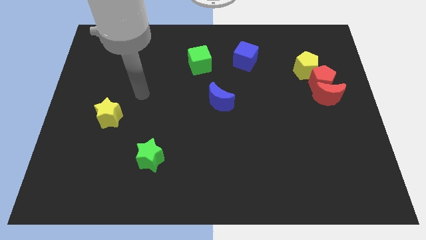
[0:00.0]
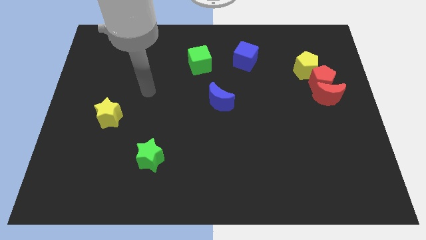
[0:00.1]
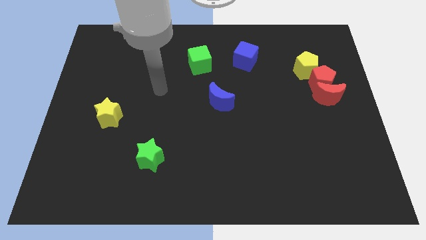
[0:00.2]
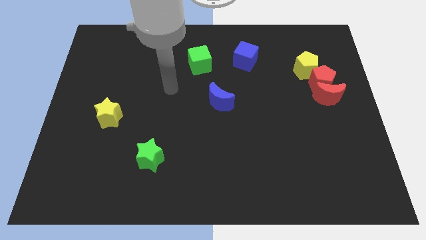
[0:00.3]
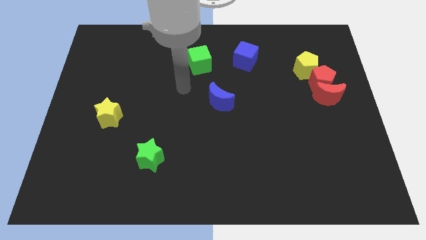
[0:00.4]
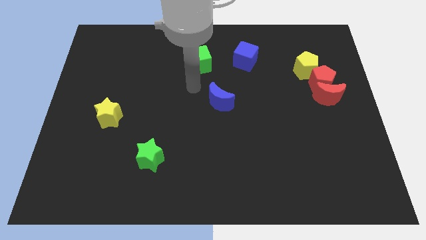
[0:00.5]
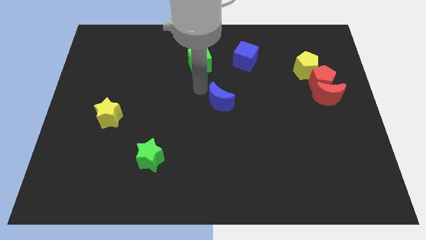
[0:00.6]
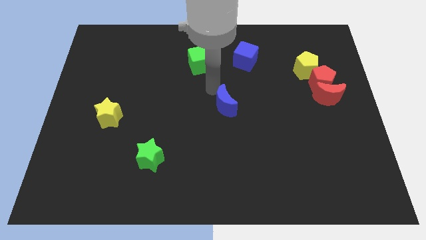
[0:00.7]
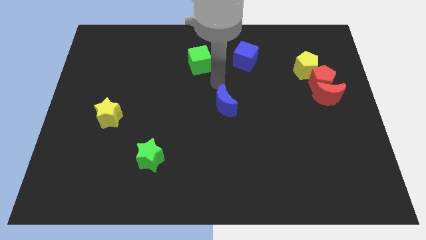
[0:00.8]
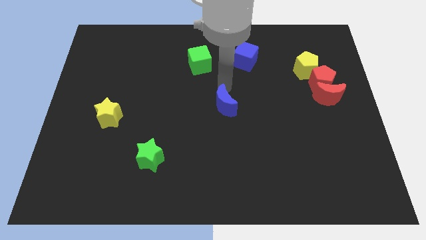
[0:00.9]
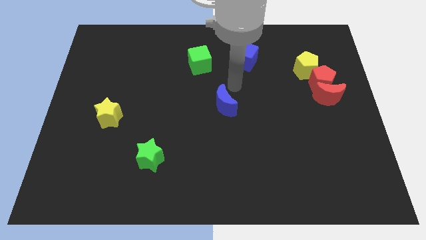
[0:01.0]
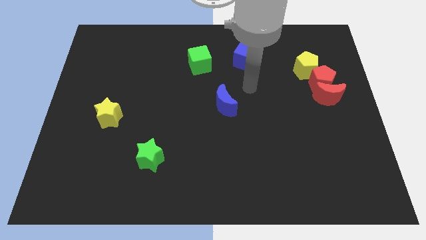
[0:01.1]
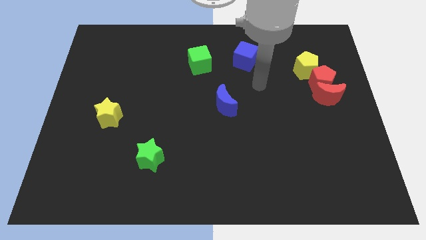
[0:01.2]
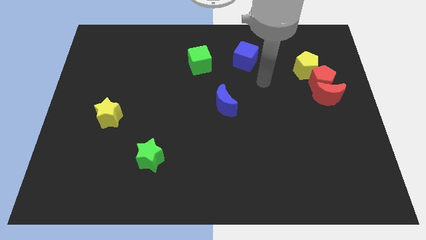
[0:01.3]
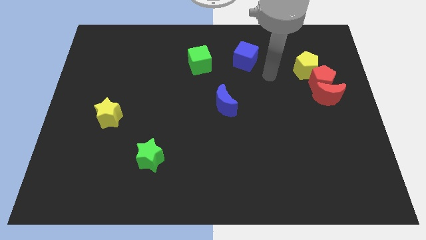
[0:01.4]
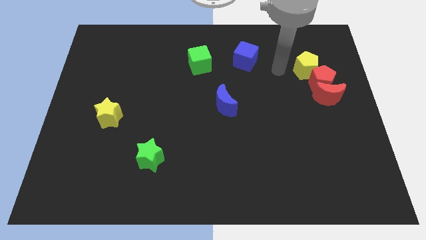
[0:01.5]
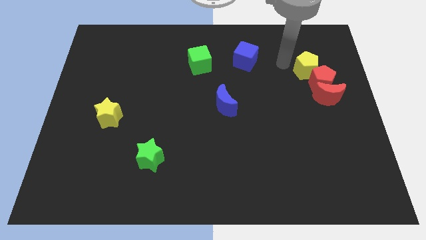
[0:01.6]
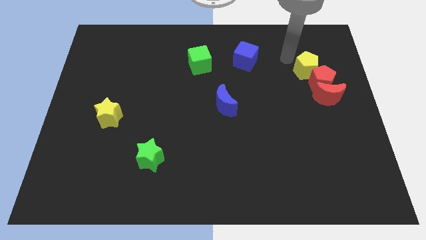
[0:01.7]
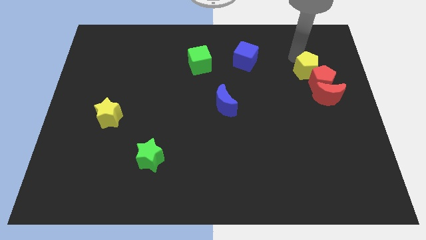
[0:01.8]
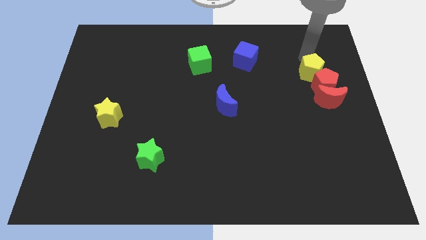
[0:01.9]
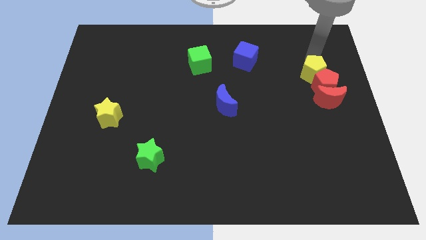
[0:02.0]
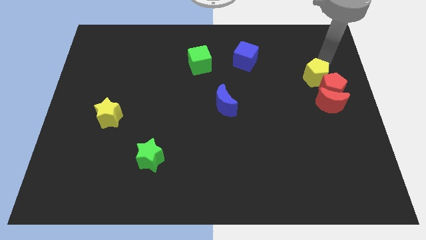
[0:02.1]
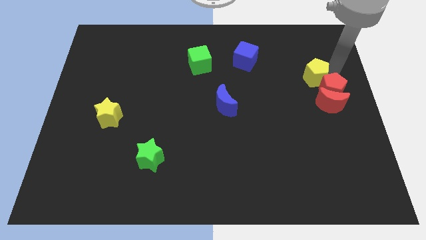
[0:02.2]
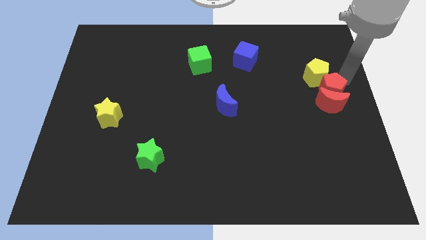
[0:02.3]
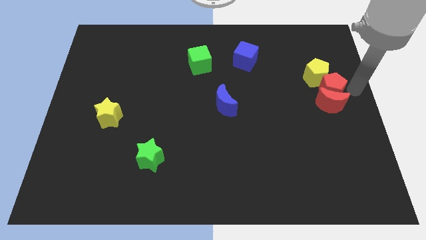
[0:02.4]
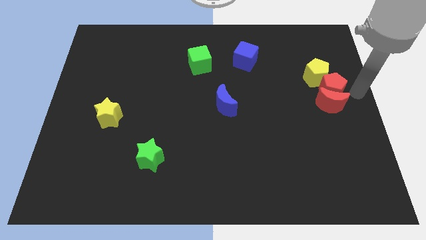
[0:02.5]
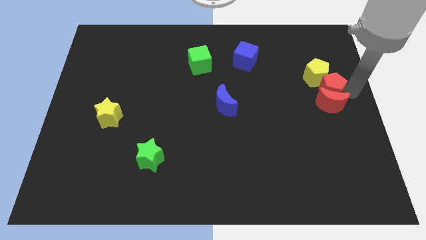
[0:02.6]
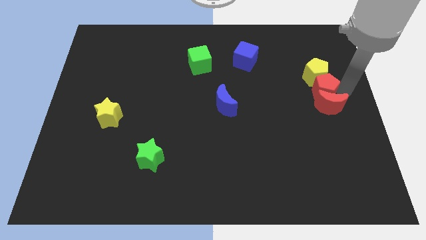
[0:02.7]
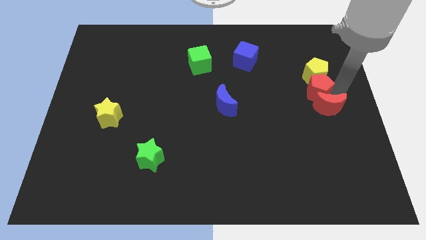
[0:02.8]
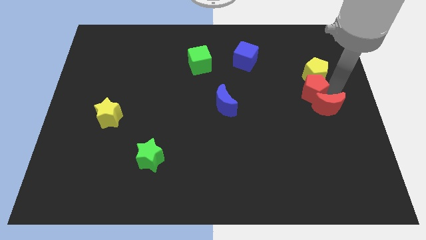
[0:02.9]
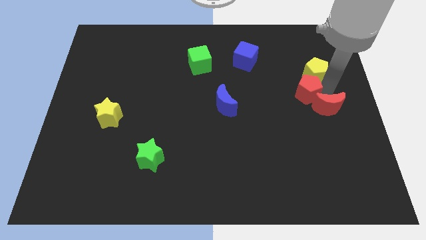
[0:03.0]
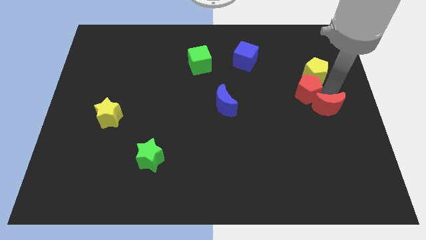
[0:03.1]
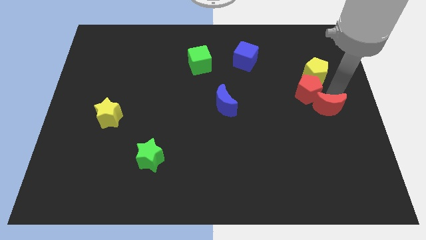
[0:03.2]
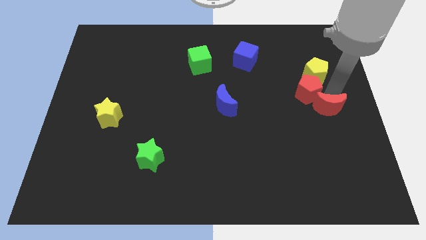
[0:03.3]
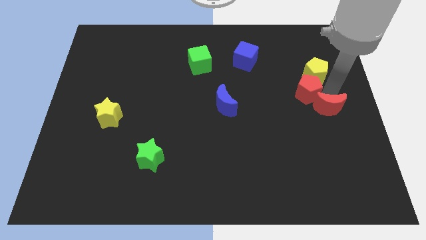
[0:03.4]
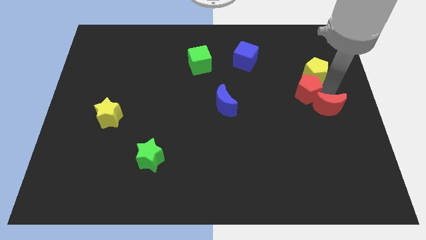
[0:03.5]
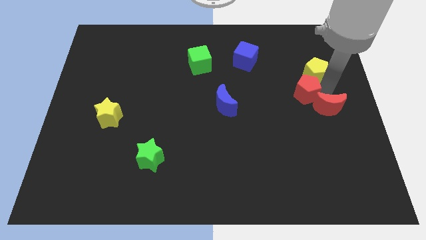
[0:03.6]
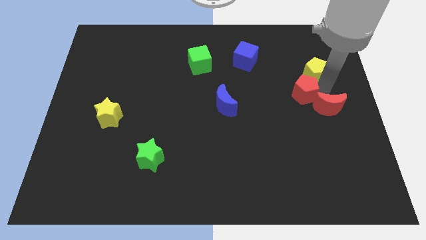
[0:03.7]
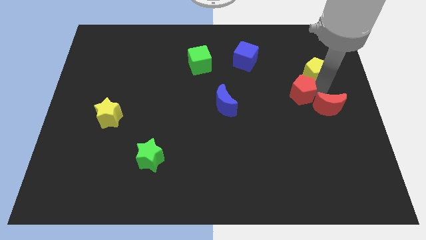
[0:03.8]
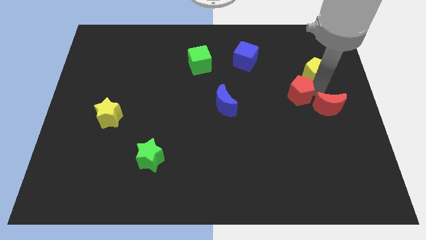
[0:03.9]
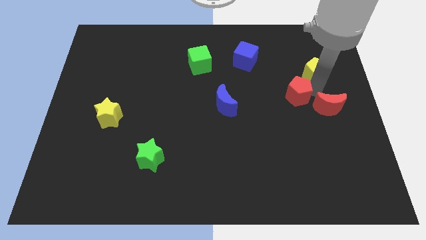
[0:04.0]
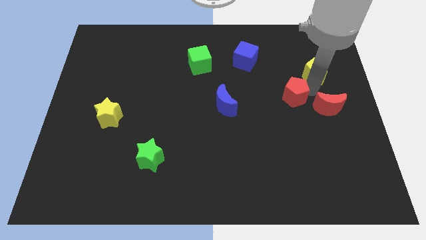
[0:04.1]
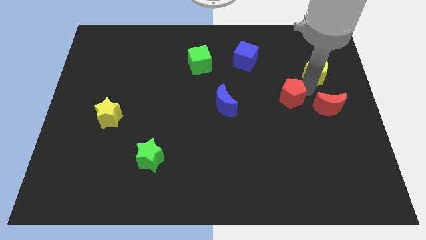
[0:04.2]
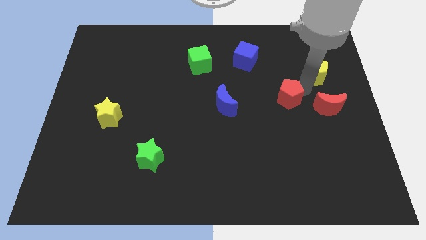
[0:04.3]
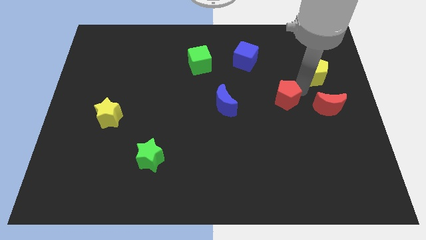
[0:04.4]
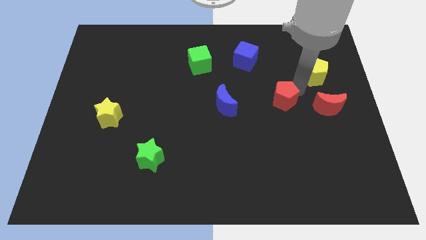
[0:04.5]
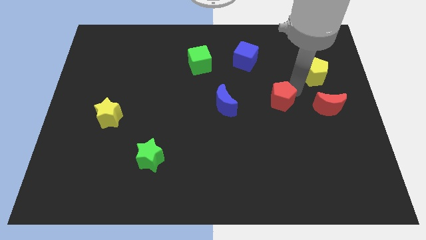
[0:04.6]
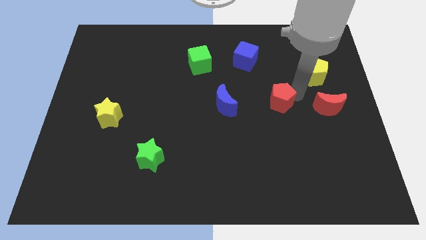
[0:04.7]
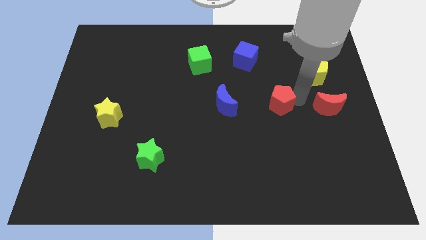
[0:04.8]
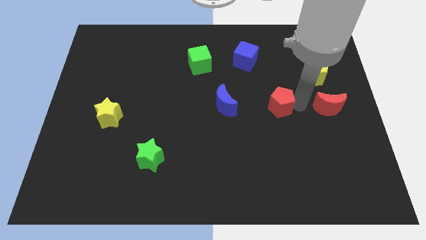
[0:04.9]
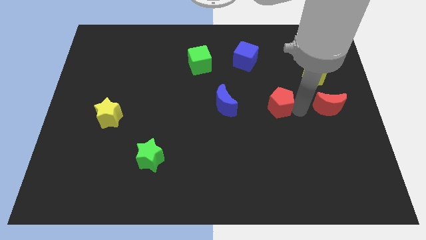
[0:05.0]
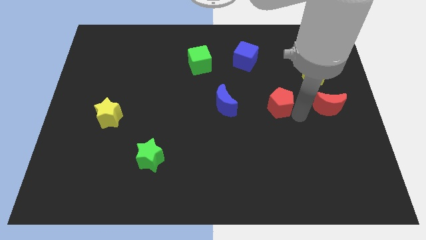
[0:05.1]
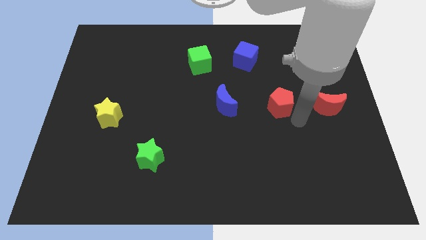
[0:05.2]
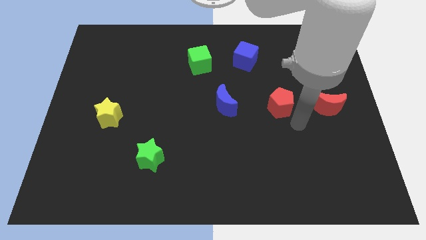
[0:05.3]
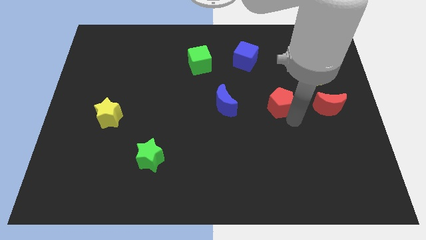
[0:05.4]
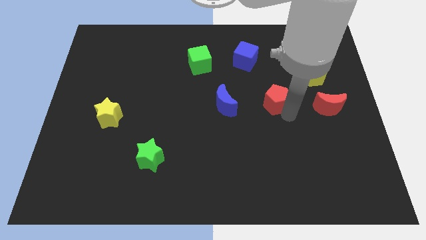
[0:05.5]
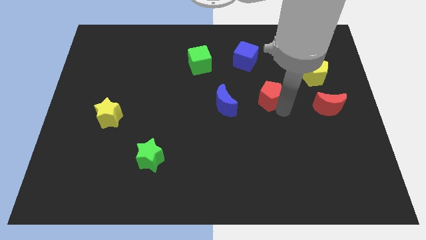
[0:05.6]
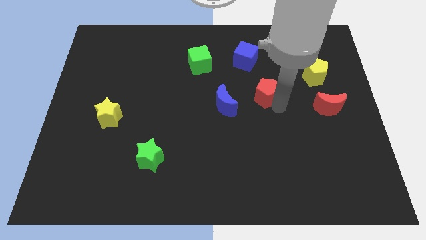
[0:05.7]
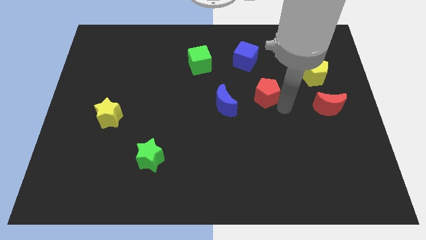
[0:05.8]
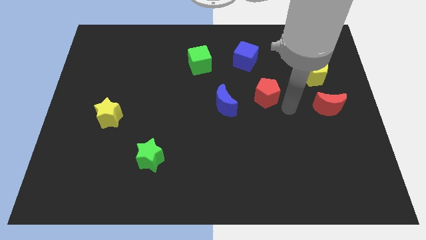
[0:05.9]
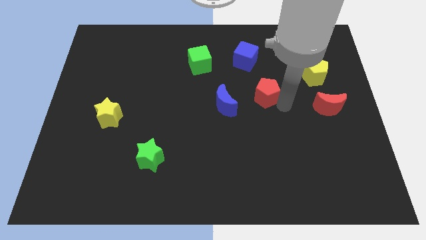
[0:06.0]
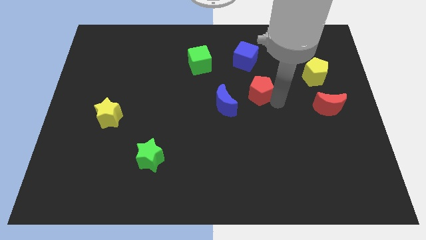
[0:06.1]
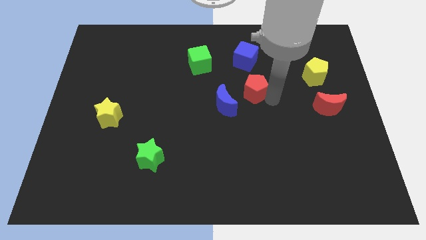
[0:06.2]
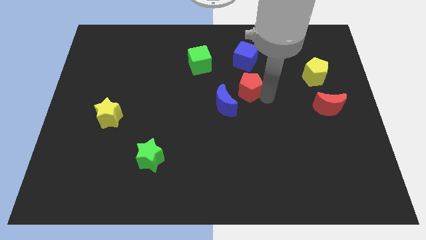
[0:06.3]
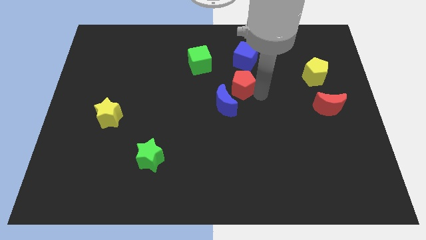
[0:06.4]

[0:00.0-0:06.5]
push the red pentagon left

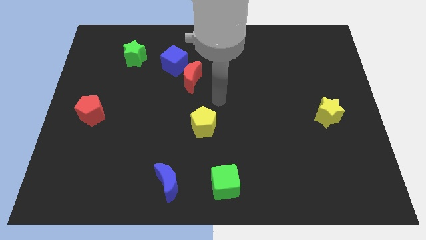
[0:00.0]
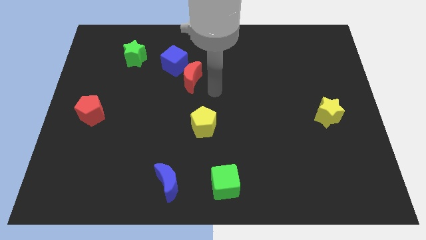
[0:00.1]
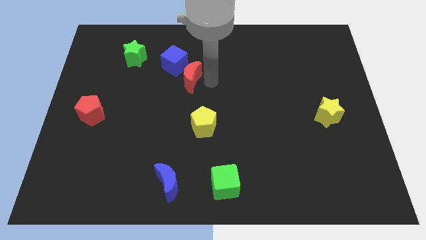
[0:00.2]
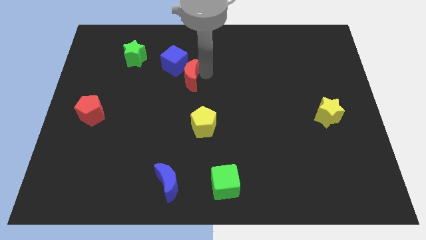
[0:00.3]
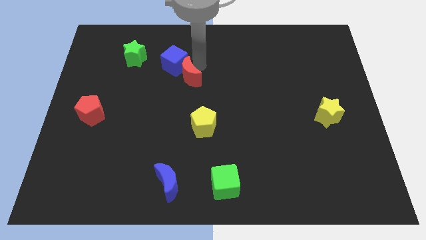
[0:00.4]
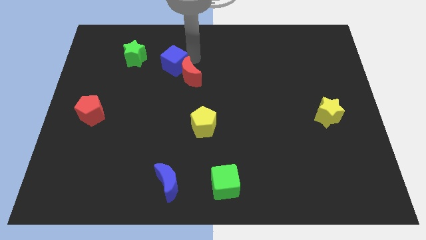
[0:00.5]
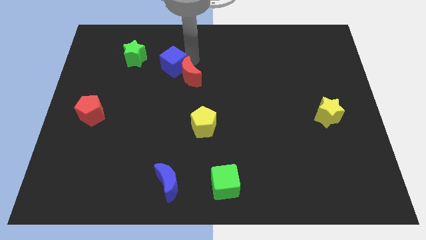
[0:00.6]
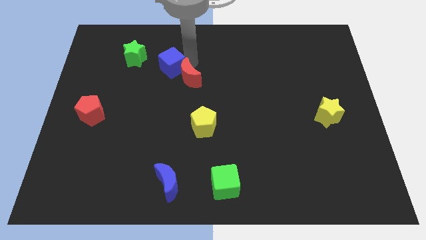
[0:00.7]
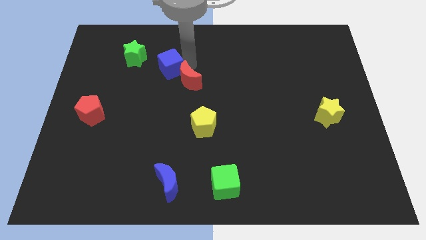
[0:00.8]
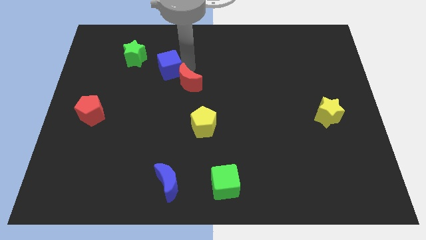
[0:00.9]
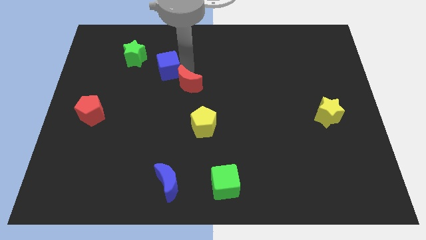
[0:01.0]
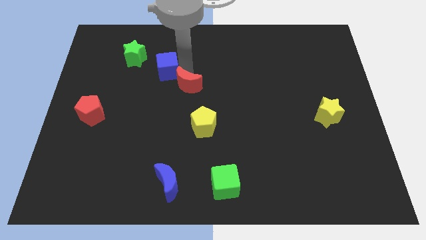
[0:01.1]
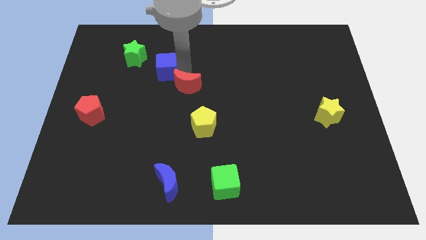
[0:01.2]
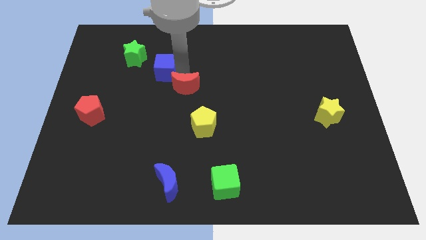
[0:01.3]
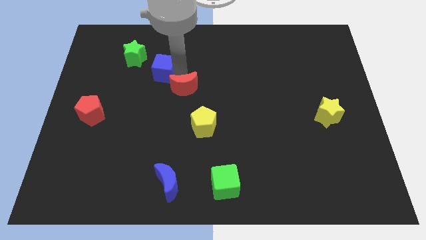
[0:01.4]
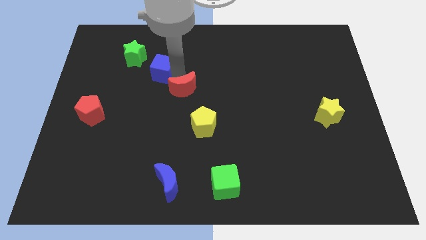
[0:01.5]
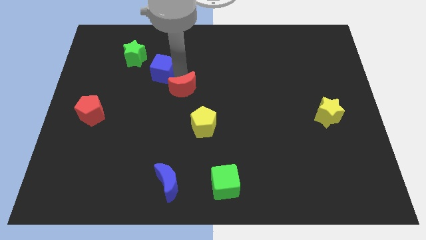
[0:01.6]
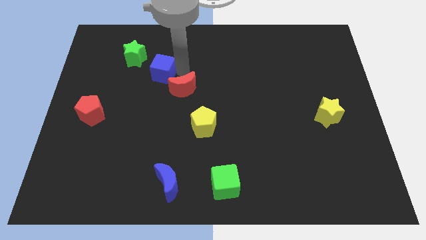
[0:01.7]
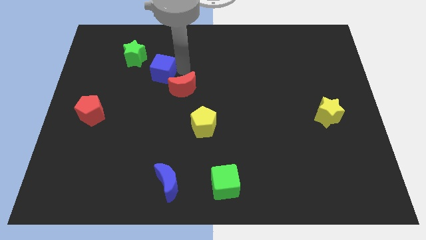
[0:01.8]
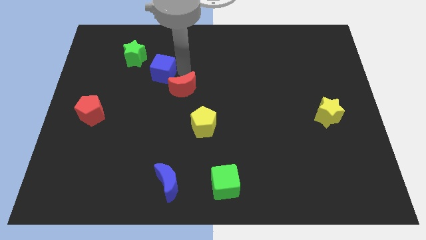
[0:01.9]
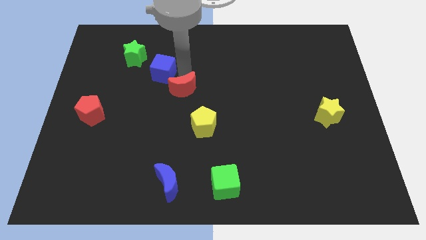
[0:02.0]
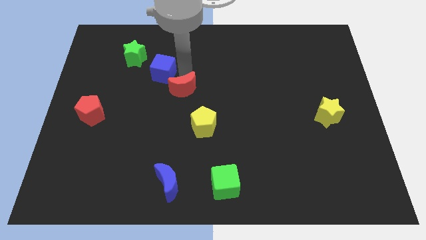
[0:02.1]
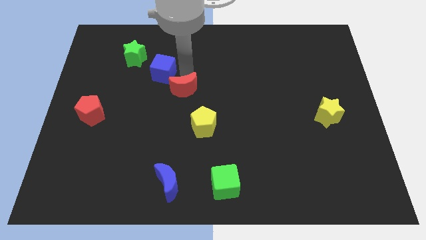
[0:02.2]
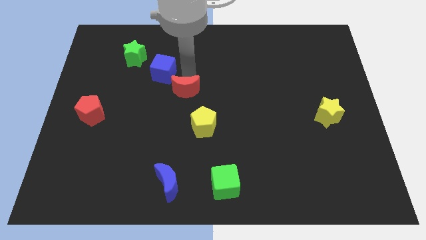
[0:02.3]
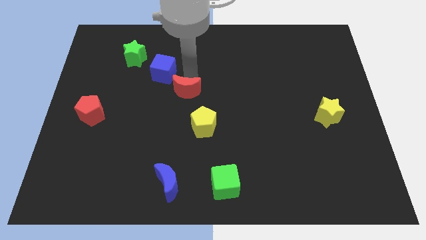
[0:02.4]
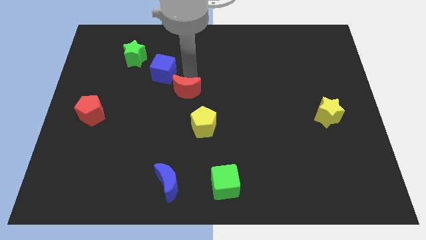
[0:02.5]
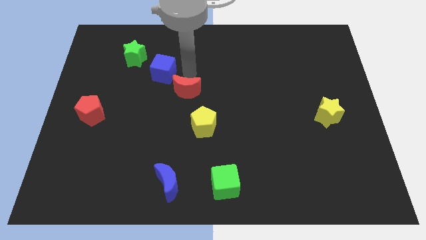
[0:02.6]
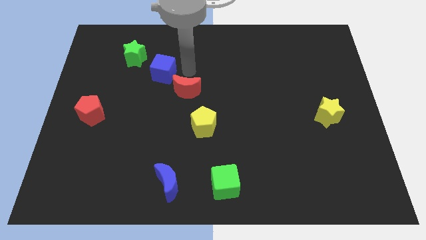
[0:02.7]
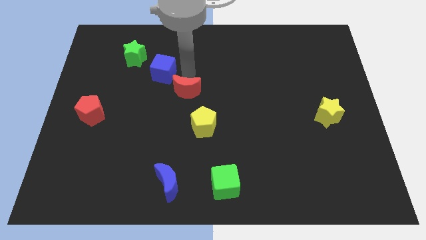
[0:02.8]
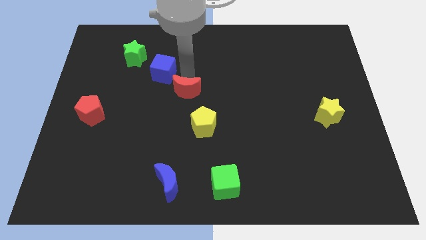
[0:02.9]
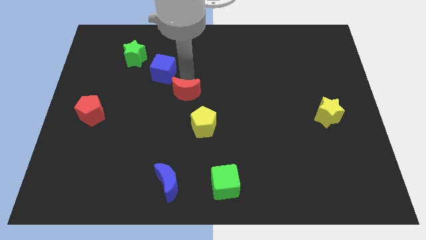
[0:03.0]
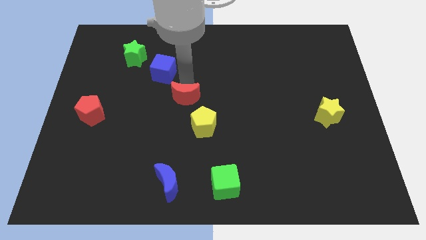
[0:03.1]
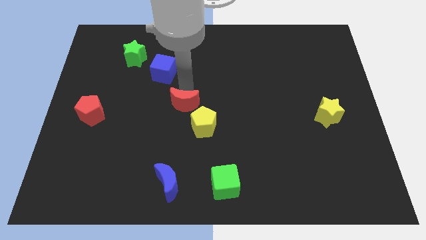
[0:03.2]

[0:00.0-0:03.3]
move the red moon a little downwards
